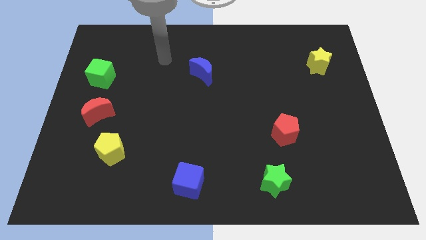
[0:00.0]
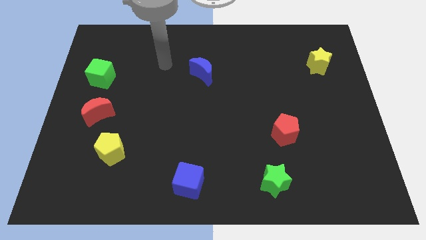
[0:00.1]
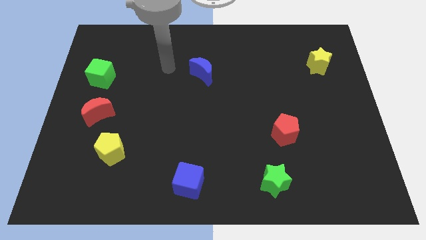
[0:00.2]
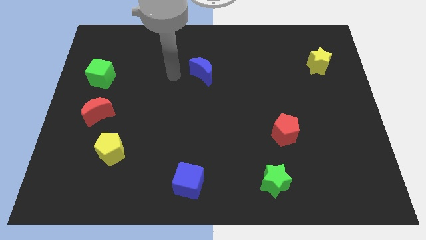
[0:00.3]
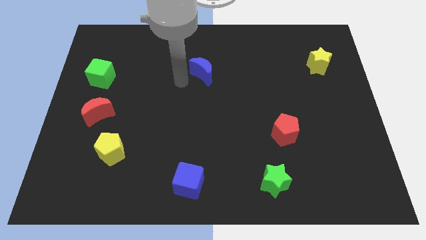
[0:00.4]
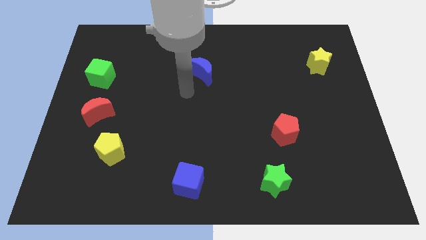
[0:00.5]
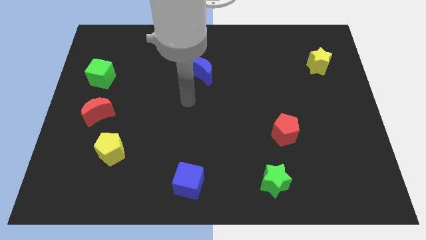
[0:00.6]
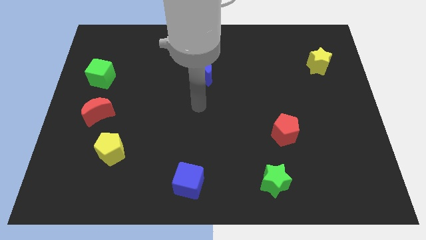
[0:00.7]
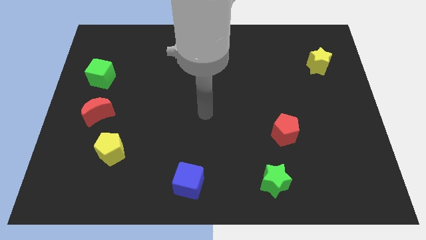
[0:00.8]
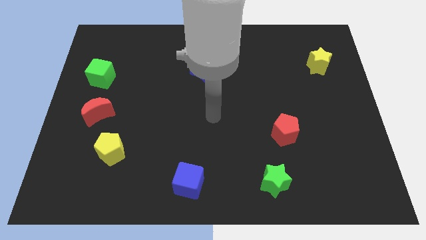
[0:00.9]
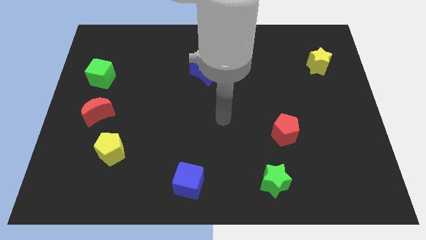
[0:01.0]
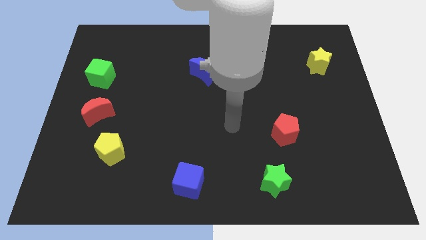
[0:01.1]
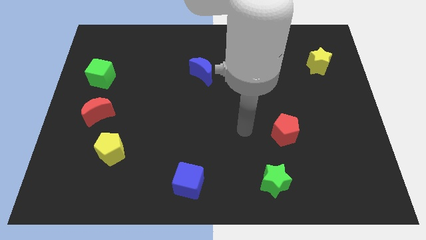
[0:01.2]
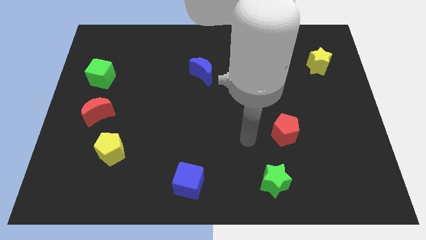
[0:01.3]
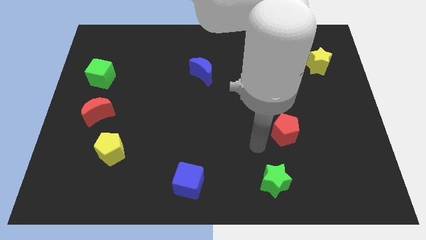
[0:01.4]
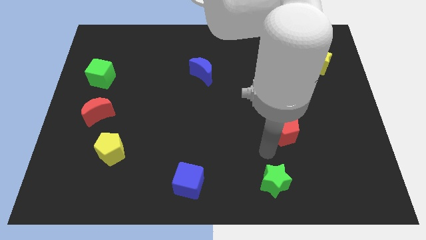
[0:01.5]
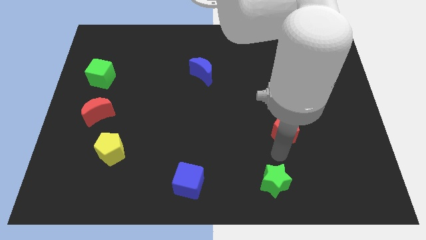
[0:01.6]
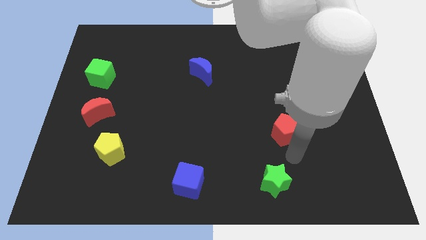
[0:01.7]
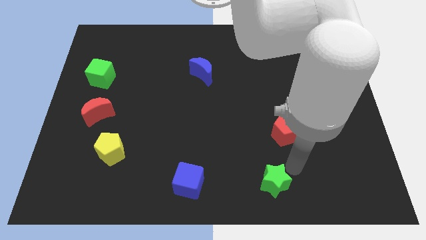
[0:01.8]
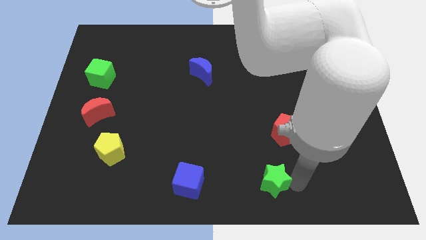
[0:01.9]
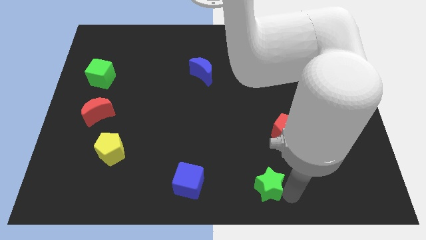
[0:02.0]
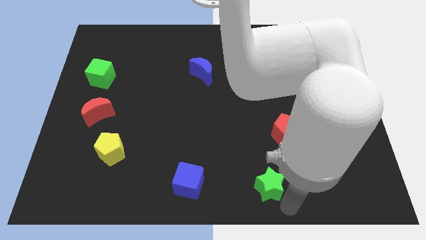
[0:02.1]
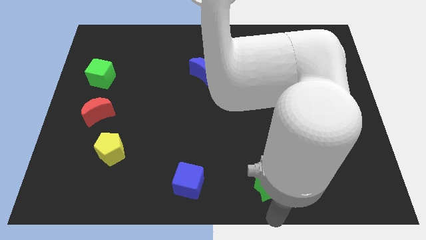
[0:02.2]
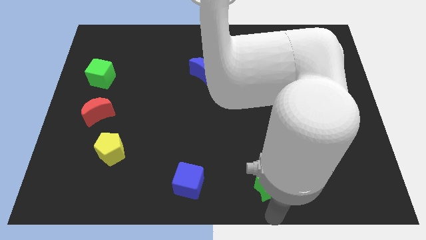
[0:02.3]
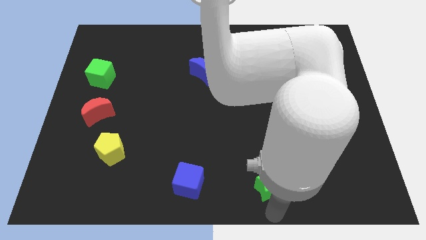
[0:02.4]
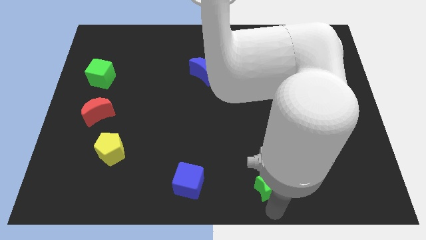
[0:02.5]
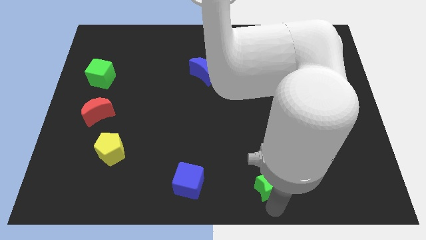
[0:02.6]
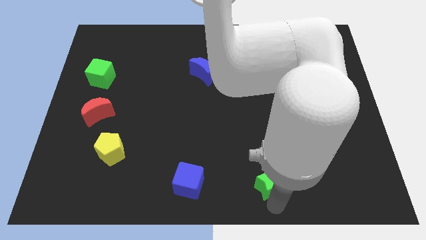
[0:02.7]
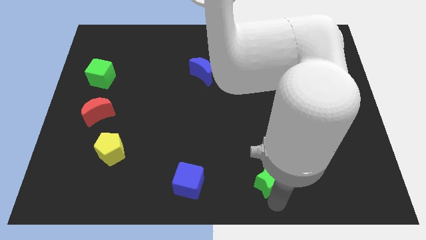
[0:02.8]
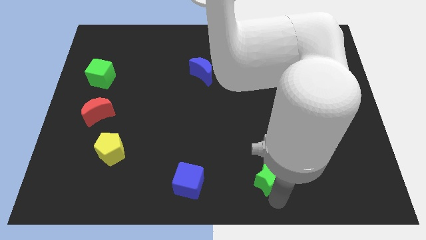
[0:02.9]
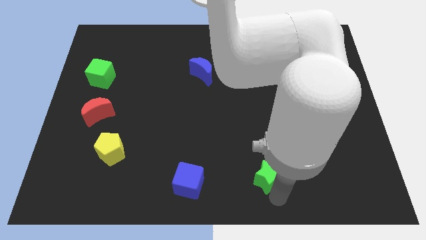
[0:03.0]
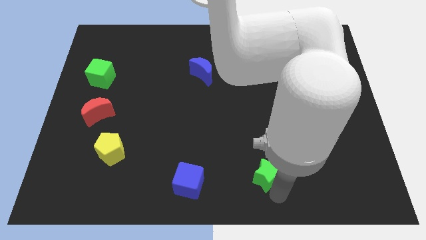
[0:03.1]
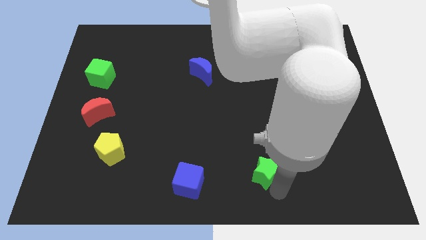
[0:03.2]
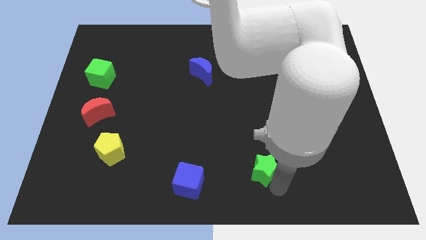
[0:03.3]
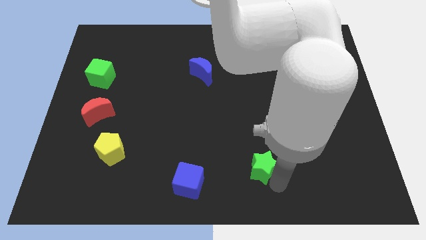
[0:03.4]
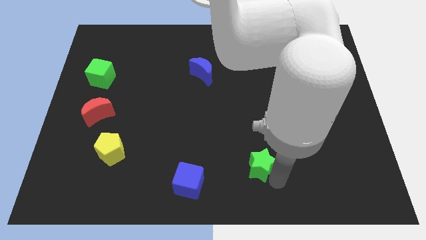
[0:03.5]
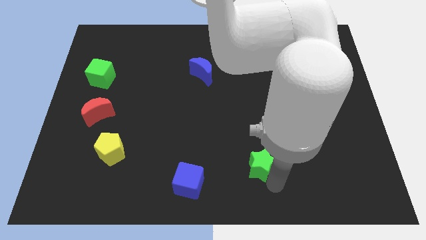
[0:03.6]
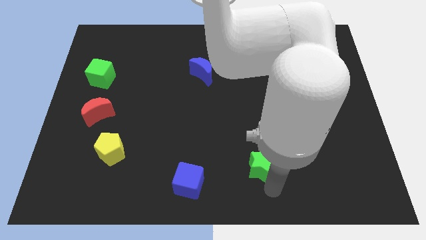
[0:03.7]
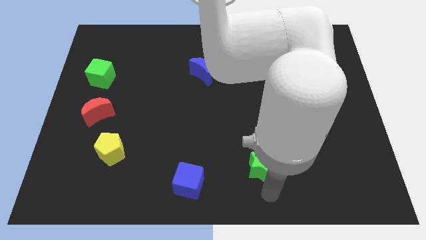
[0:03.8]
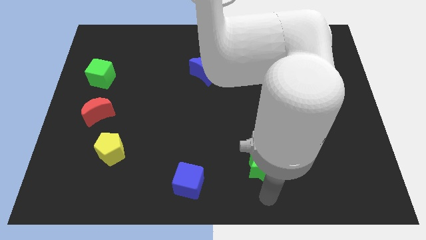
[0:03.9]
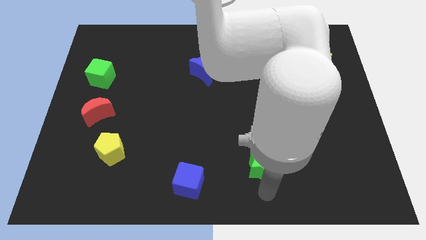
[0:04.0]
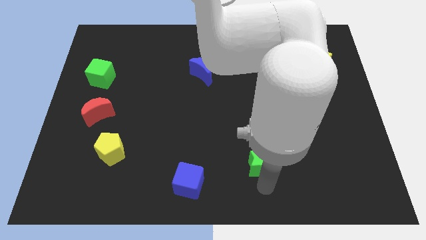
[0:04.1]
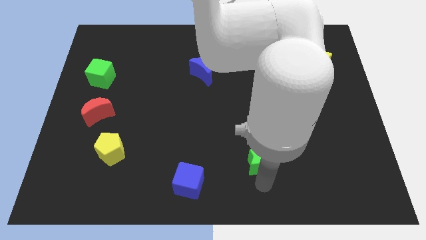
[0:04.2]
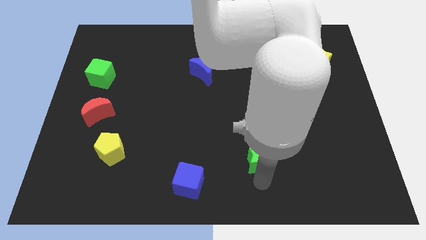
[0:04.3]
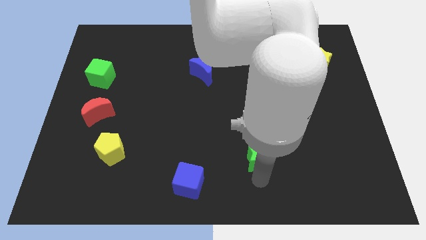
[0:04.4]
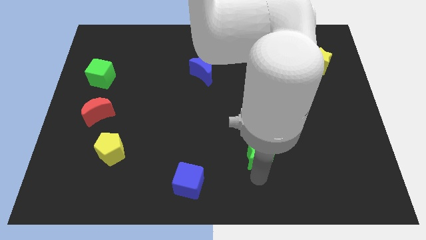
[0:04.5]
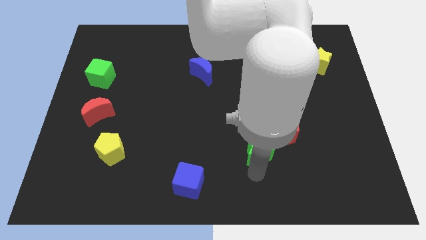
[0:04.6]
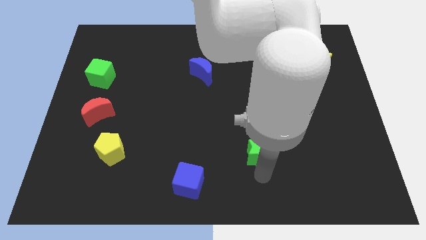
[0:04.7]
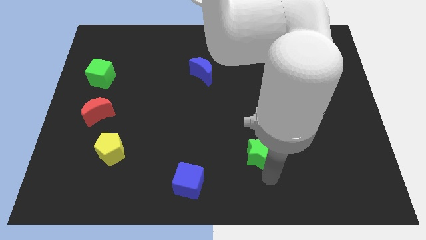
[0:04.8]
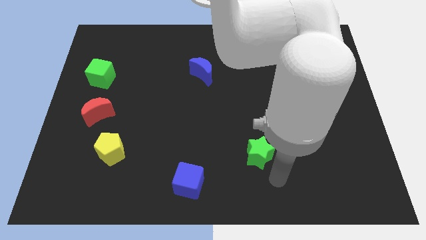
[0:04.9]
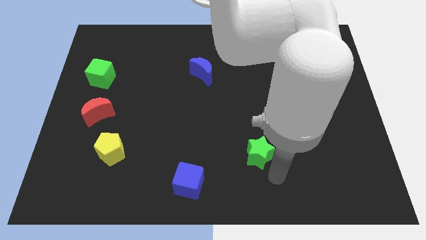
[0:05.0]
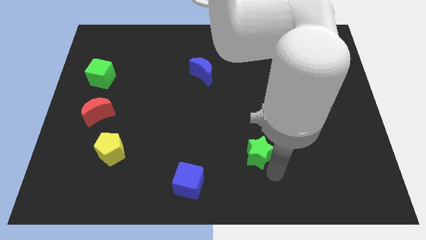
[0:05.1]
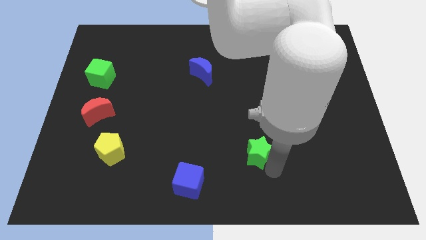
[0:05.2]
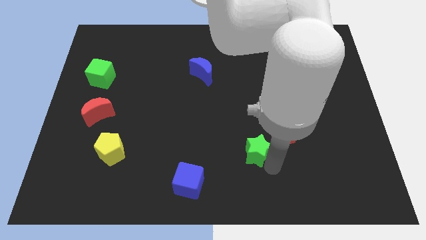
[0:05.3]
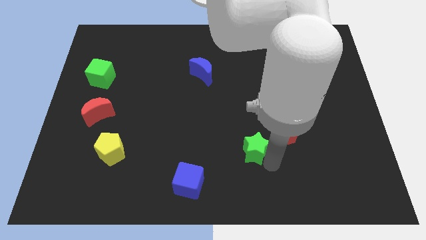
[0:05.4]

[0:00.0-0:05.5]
push the green star to the left side of the red pentagon

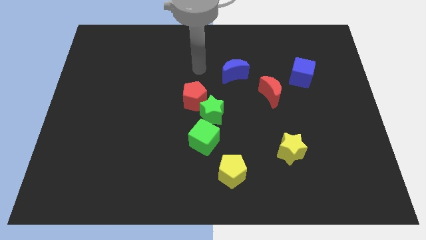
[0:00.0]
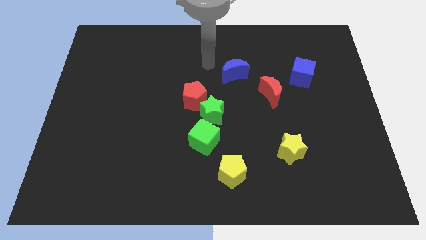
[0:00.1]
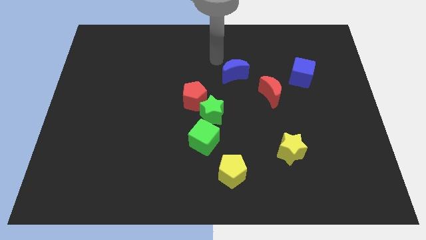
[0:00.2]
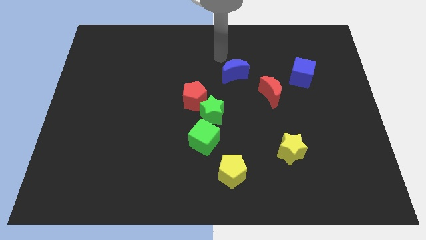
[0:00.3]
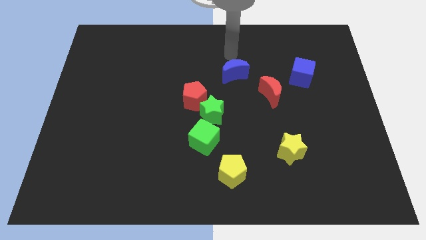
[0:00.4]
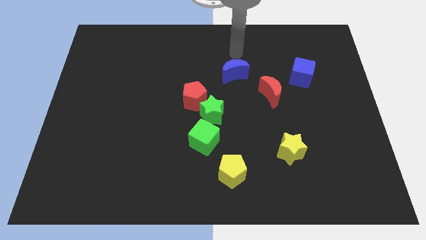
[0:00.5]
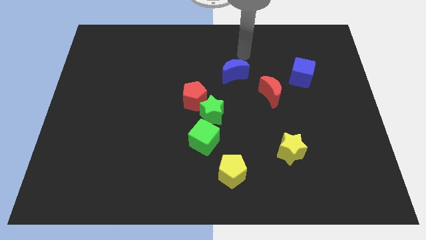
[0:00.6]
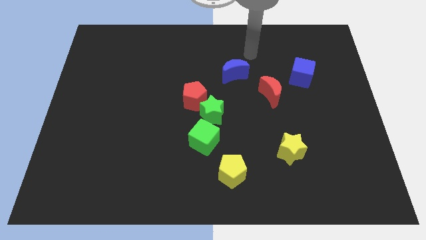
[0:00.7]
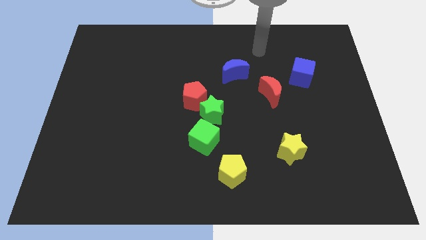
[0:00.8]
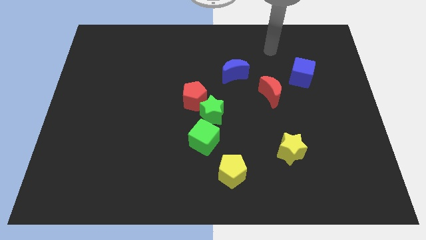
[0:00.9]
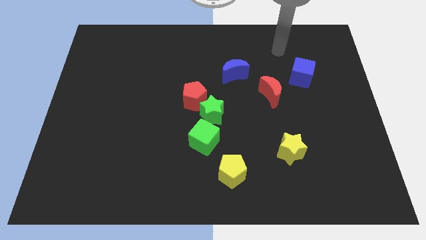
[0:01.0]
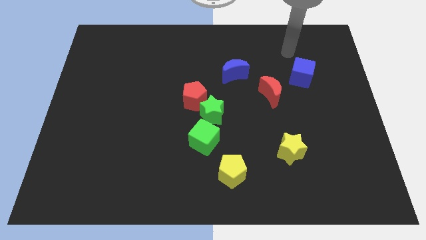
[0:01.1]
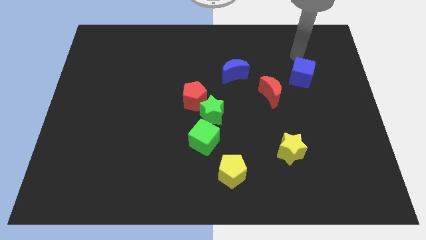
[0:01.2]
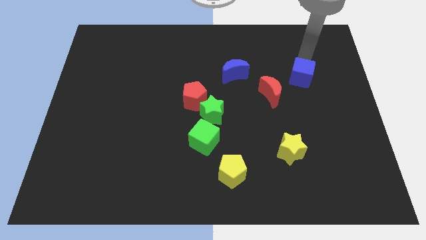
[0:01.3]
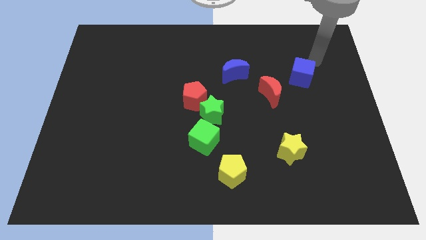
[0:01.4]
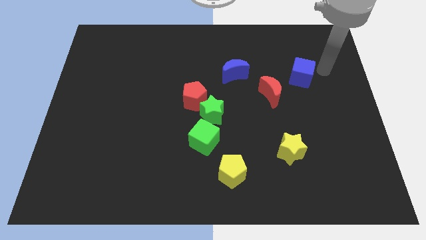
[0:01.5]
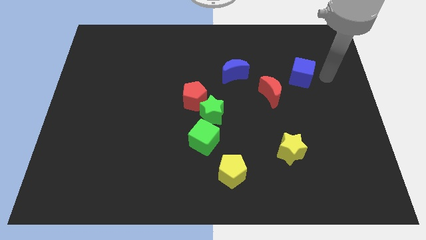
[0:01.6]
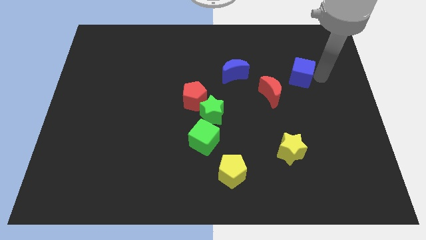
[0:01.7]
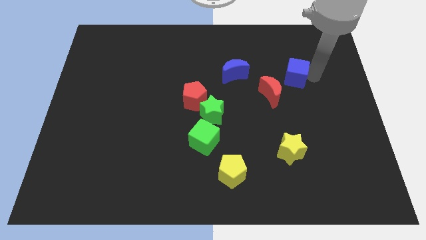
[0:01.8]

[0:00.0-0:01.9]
put the blue cube right of the blue moon
